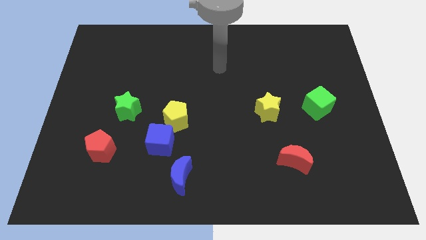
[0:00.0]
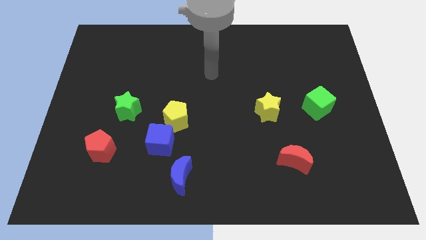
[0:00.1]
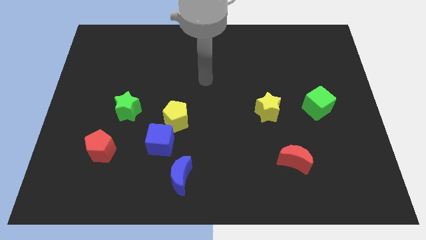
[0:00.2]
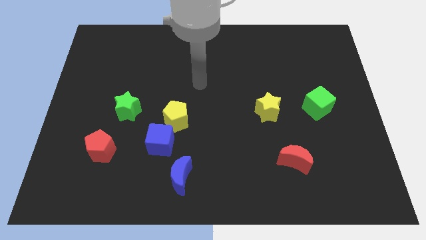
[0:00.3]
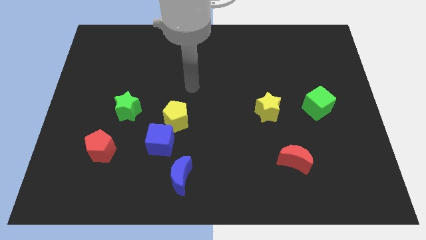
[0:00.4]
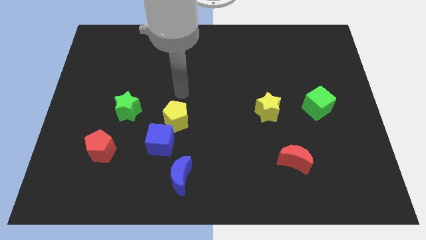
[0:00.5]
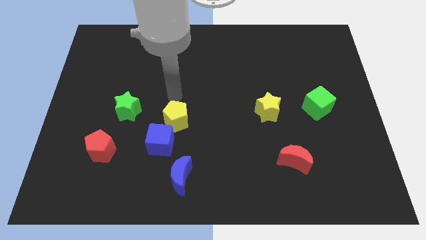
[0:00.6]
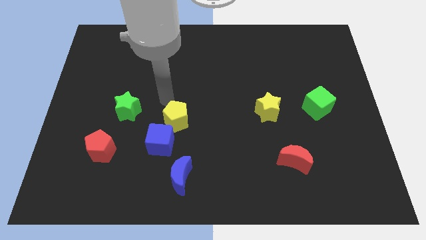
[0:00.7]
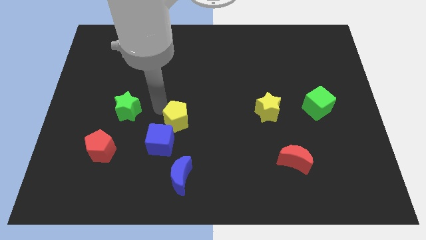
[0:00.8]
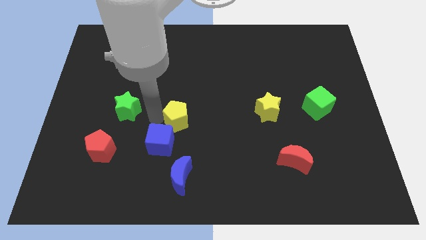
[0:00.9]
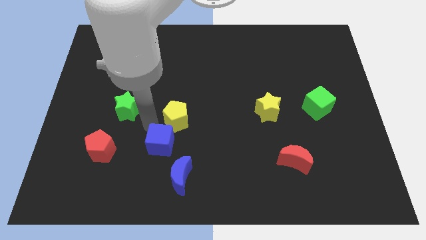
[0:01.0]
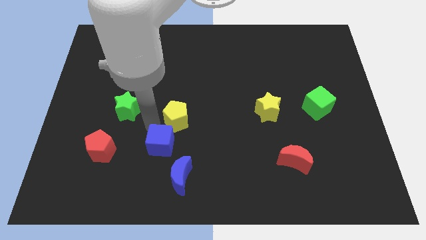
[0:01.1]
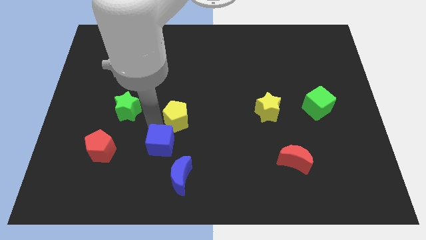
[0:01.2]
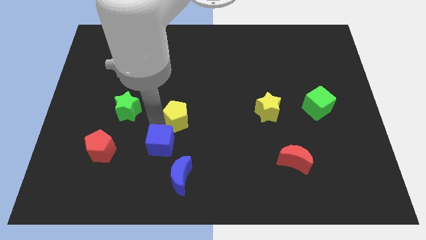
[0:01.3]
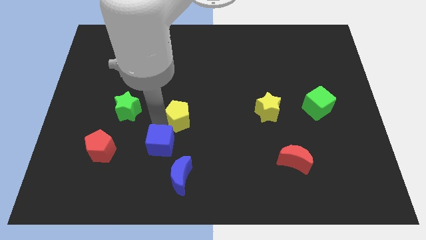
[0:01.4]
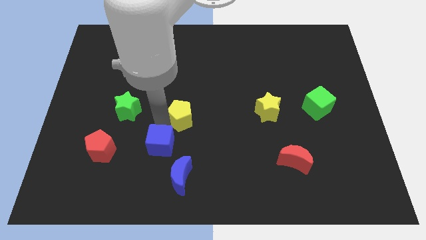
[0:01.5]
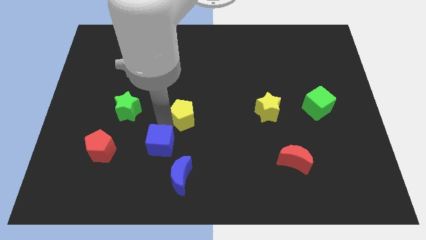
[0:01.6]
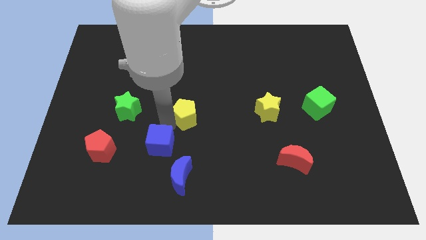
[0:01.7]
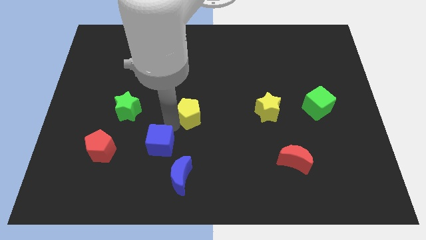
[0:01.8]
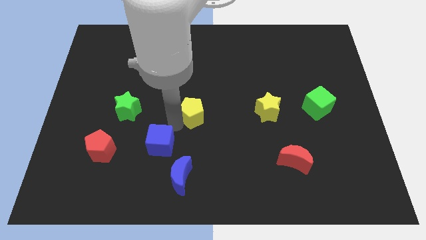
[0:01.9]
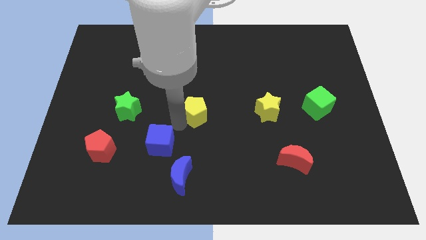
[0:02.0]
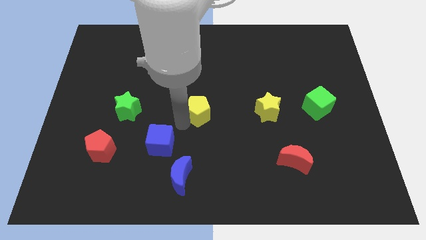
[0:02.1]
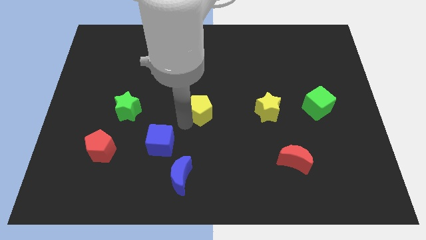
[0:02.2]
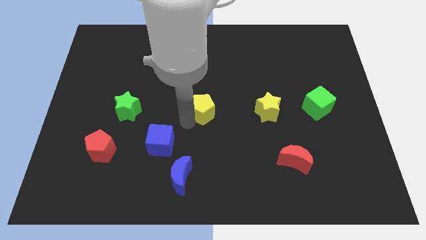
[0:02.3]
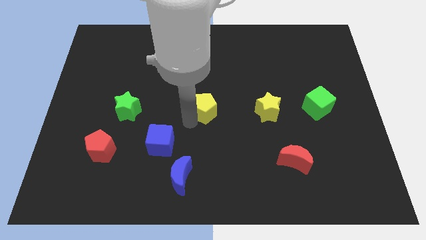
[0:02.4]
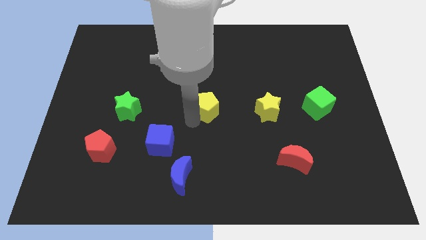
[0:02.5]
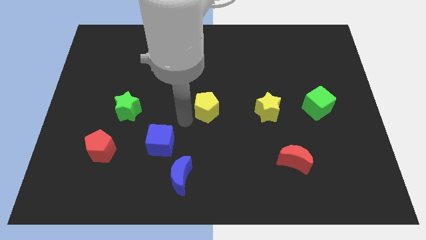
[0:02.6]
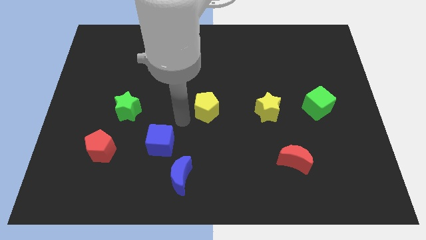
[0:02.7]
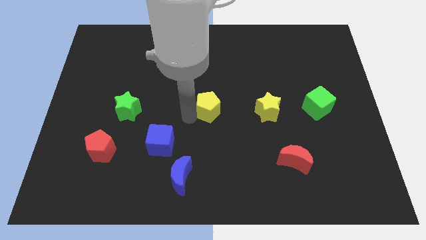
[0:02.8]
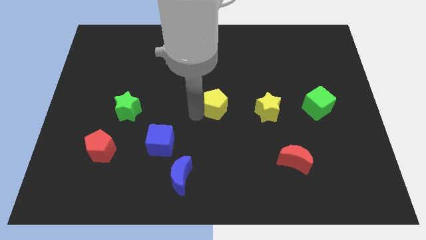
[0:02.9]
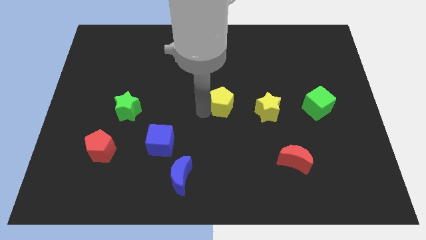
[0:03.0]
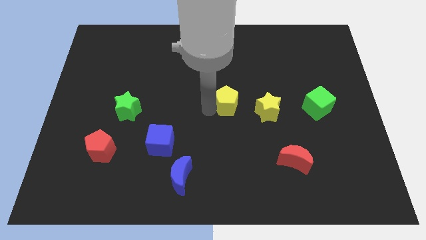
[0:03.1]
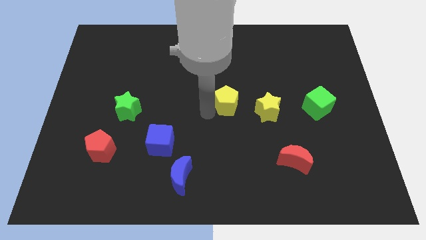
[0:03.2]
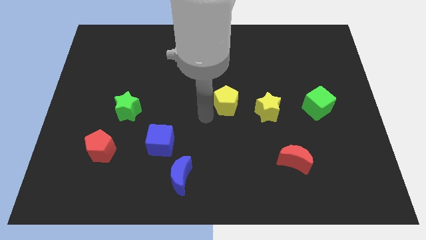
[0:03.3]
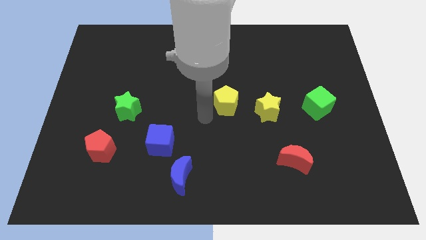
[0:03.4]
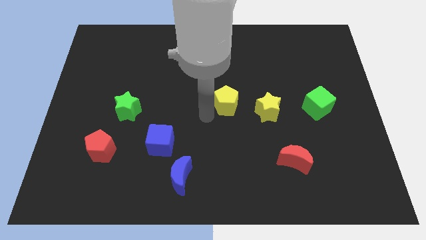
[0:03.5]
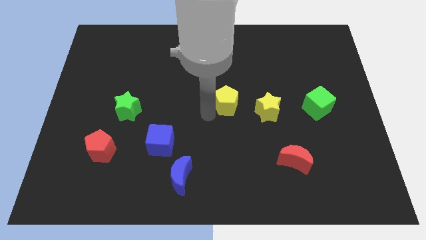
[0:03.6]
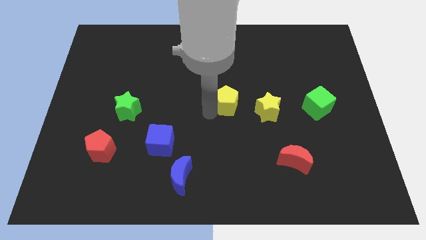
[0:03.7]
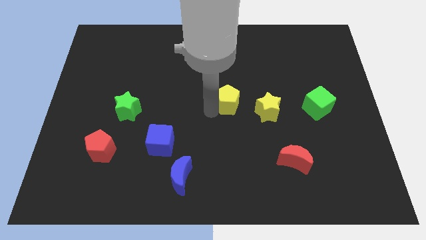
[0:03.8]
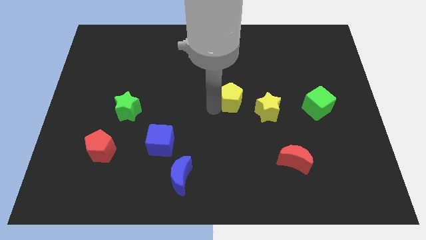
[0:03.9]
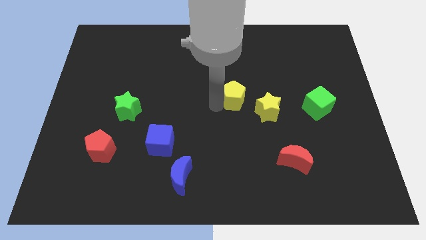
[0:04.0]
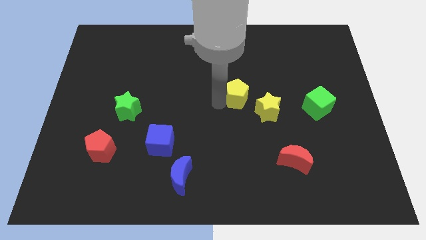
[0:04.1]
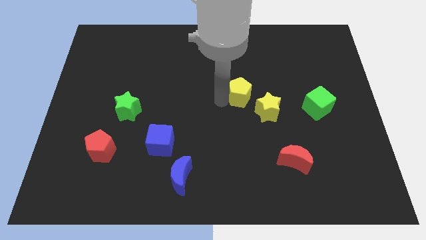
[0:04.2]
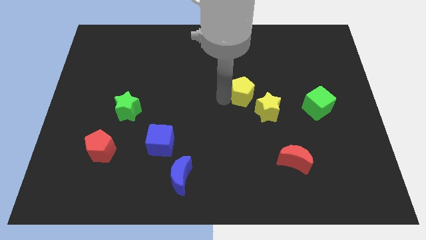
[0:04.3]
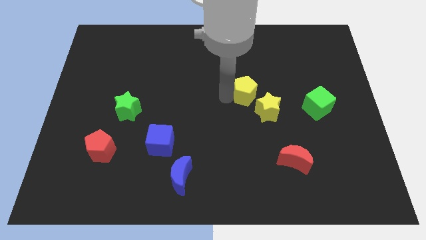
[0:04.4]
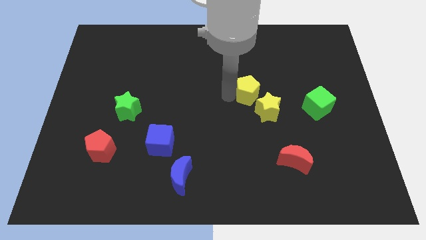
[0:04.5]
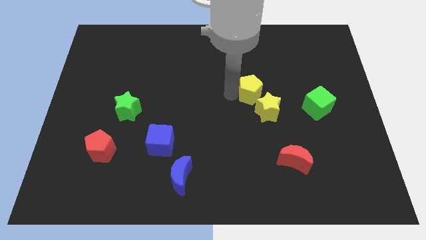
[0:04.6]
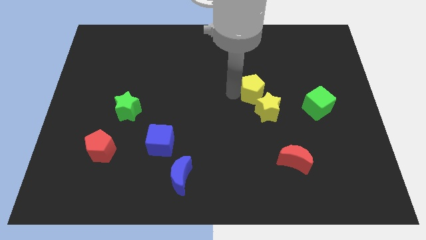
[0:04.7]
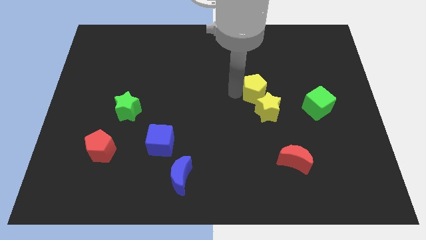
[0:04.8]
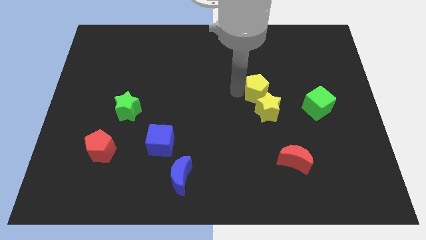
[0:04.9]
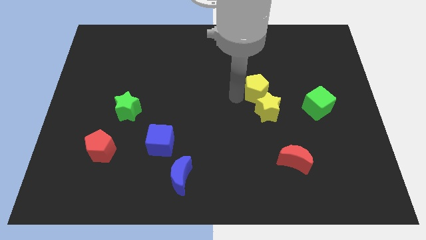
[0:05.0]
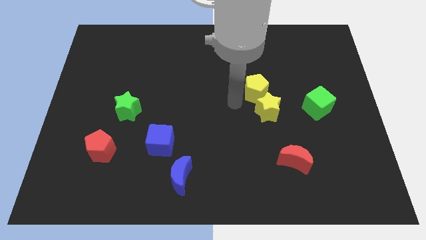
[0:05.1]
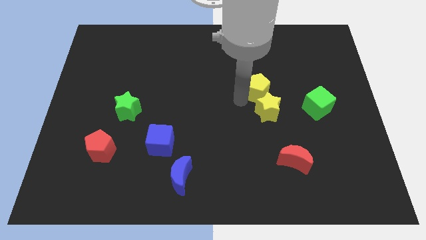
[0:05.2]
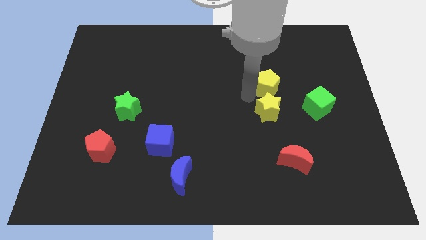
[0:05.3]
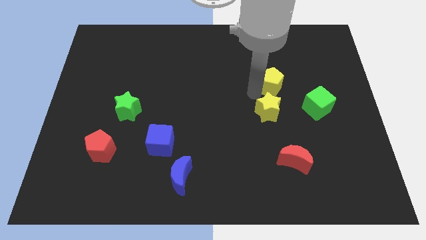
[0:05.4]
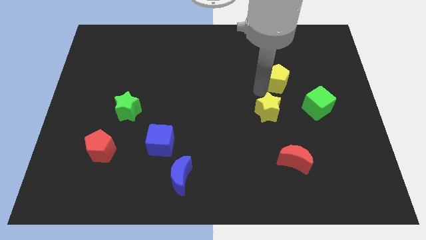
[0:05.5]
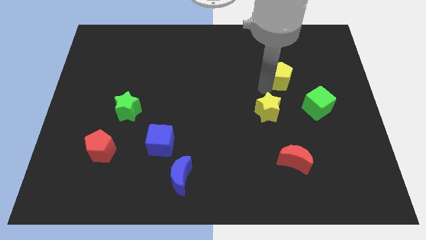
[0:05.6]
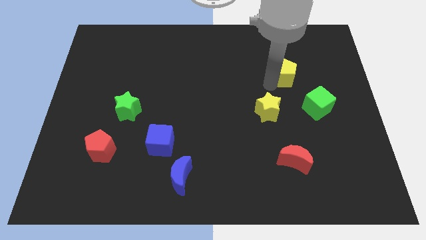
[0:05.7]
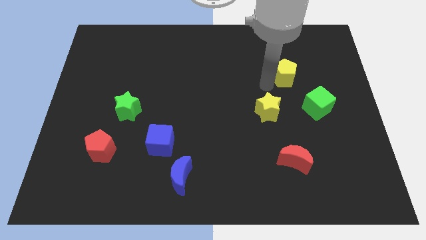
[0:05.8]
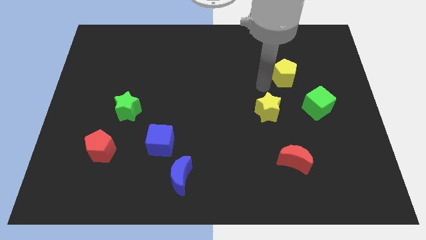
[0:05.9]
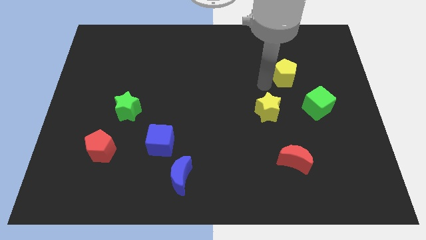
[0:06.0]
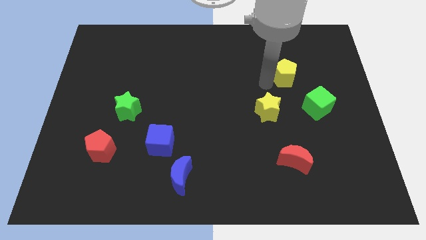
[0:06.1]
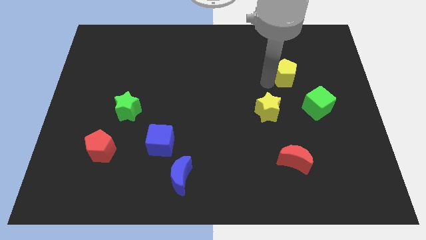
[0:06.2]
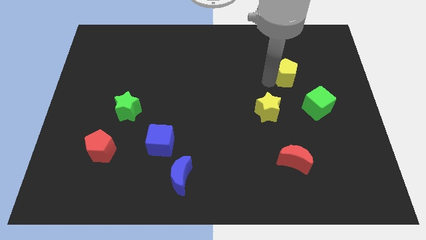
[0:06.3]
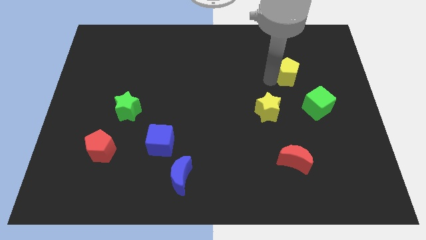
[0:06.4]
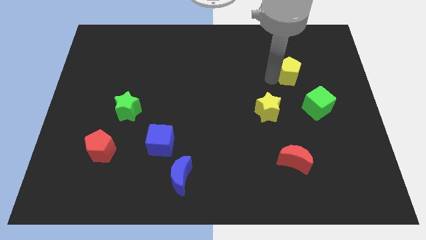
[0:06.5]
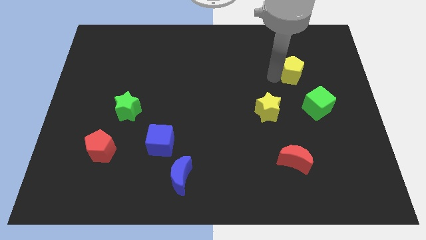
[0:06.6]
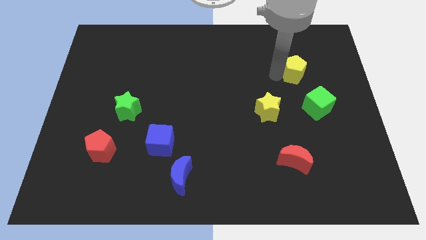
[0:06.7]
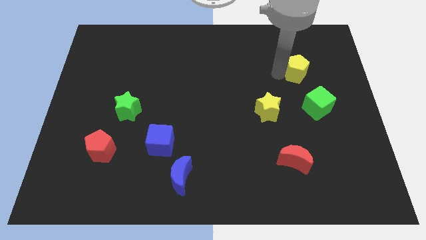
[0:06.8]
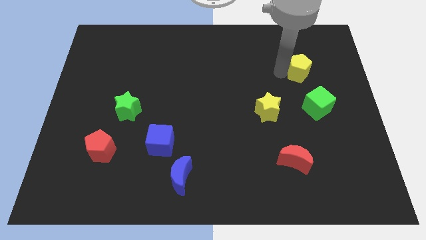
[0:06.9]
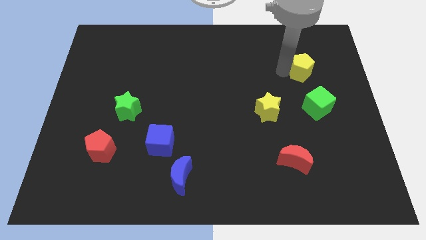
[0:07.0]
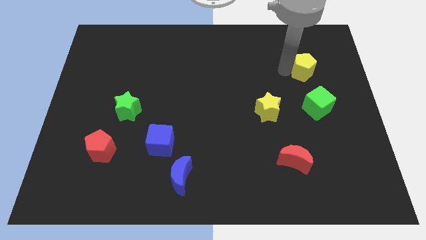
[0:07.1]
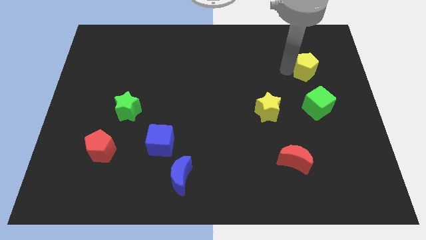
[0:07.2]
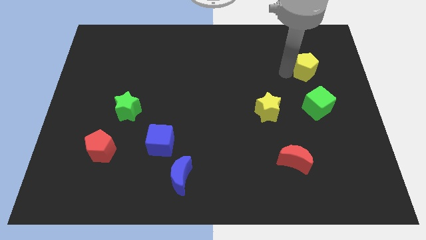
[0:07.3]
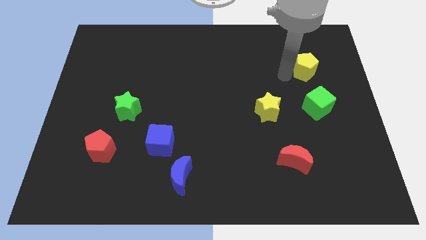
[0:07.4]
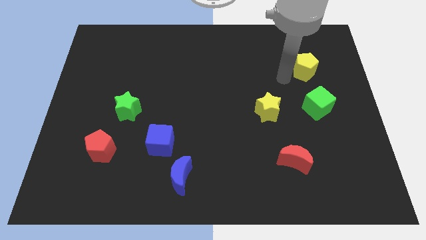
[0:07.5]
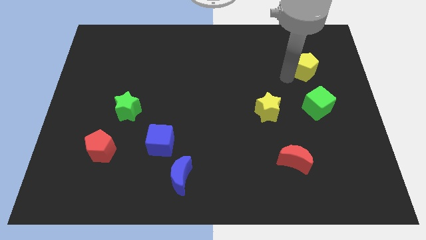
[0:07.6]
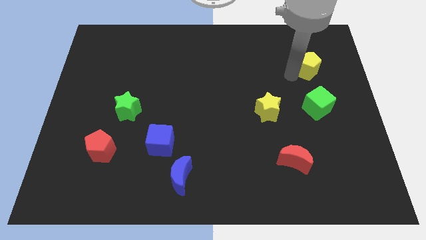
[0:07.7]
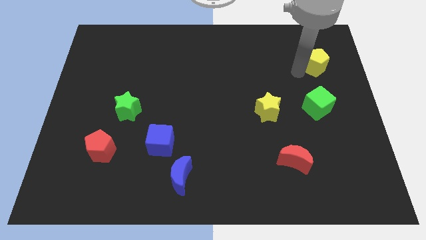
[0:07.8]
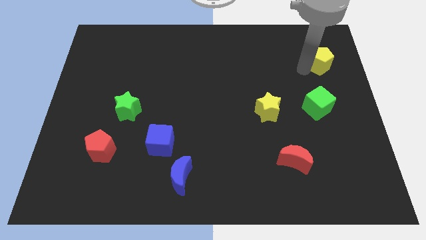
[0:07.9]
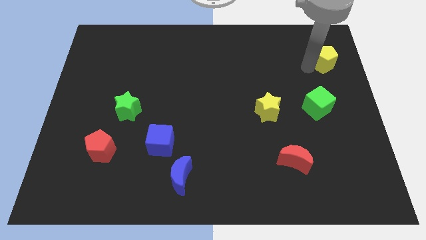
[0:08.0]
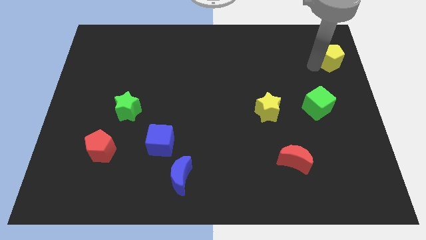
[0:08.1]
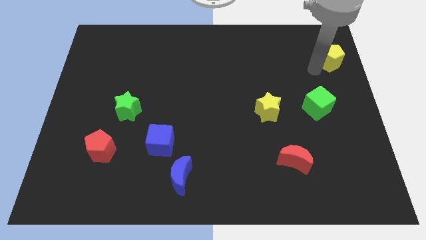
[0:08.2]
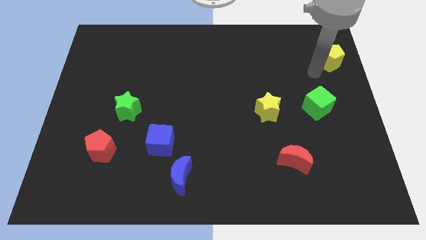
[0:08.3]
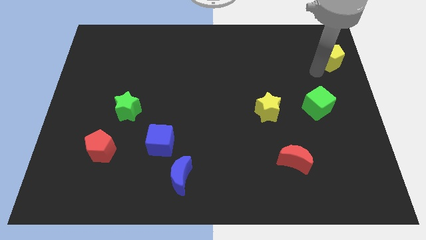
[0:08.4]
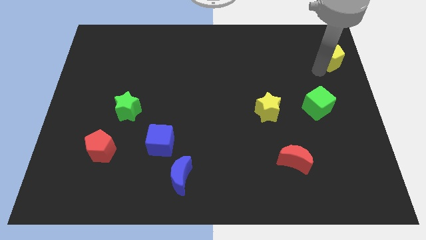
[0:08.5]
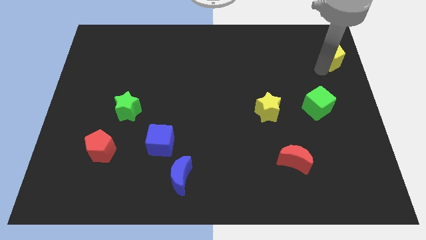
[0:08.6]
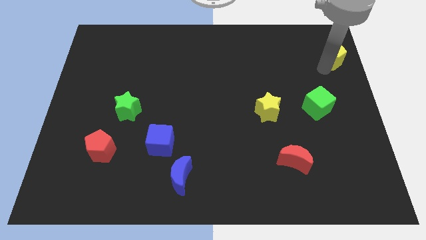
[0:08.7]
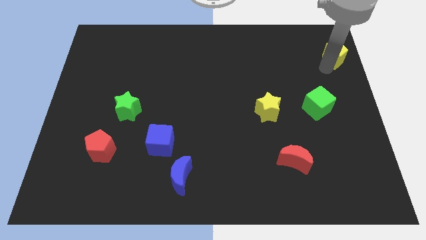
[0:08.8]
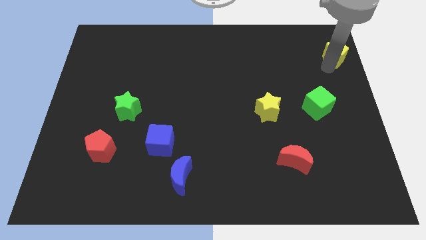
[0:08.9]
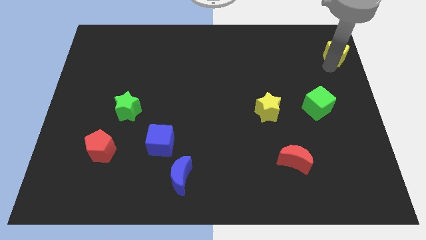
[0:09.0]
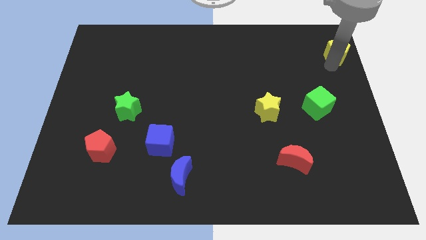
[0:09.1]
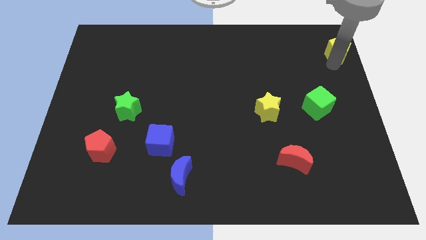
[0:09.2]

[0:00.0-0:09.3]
slide the yellow pentagon to the top right corner
